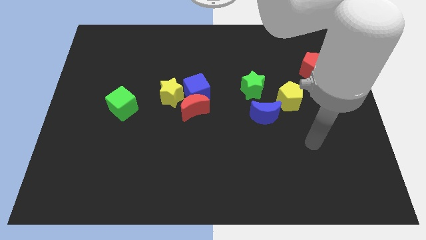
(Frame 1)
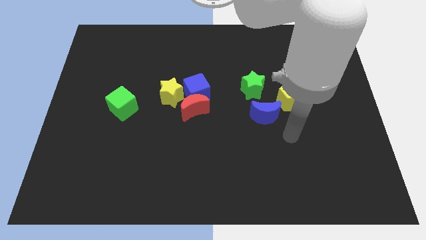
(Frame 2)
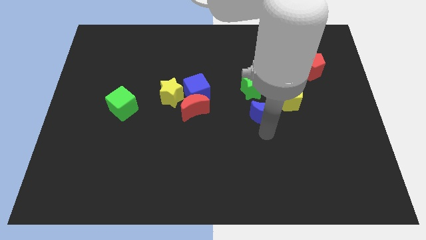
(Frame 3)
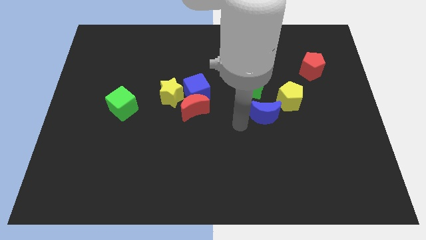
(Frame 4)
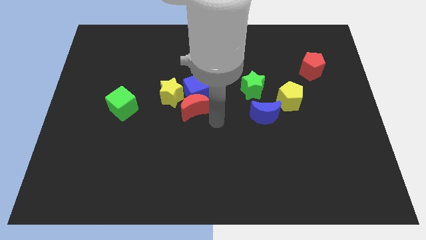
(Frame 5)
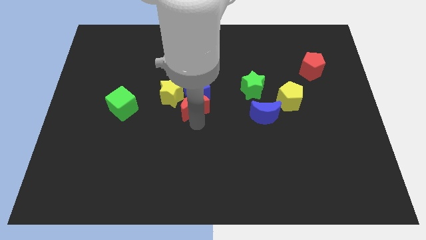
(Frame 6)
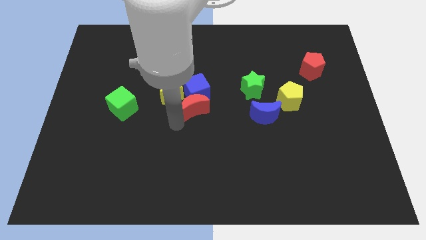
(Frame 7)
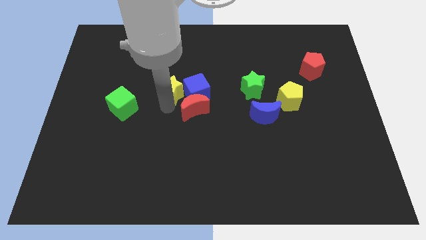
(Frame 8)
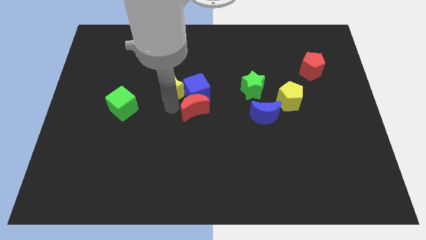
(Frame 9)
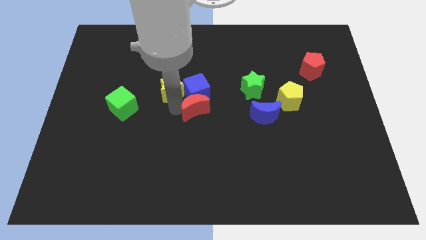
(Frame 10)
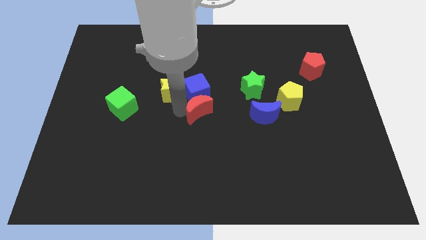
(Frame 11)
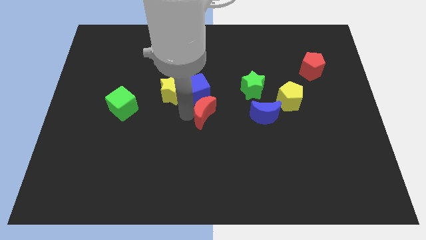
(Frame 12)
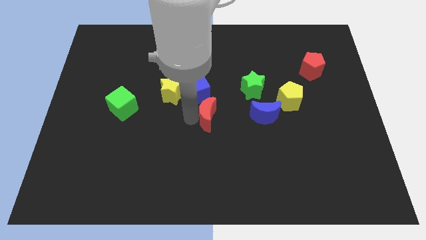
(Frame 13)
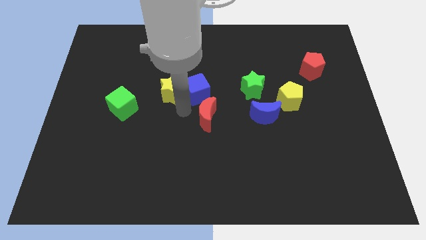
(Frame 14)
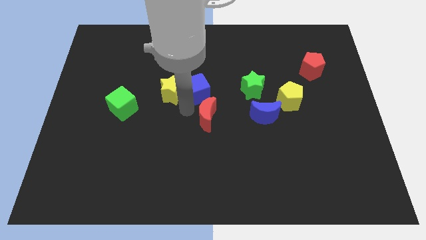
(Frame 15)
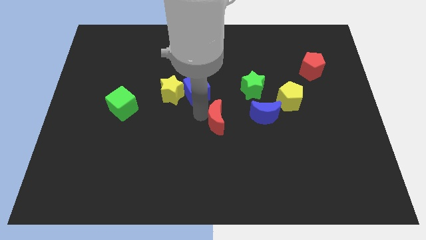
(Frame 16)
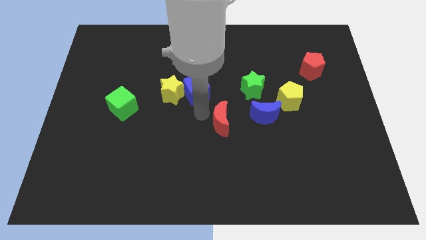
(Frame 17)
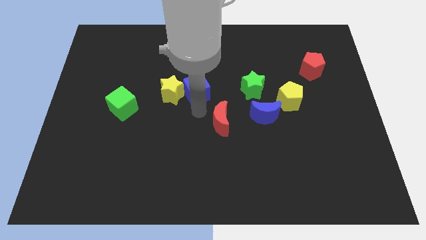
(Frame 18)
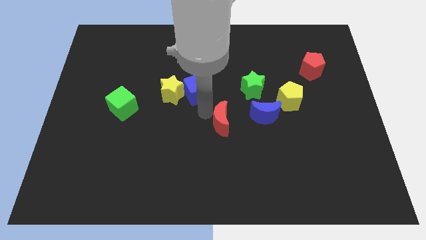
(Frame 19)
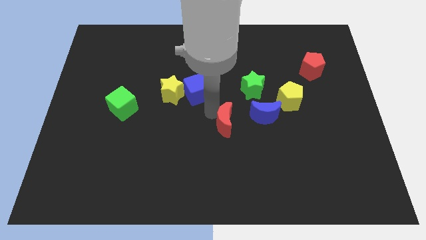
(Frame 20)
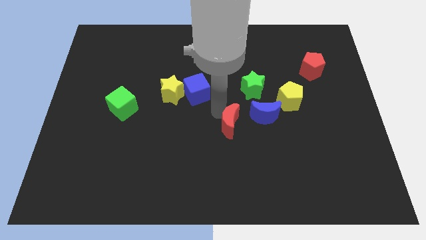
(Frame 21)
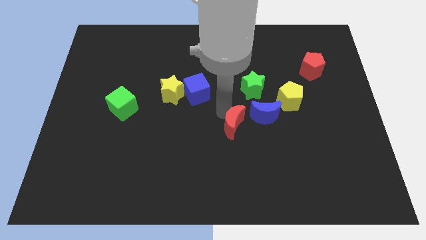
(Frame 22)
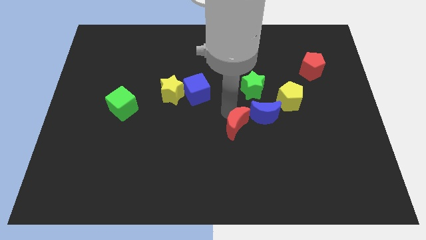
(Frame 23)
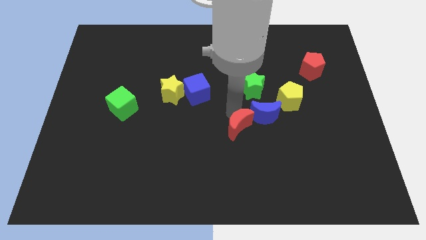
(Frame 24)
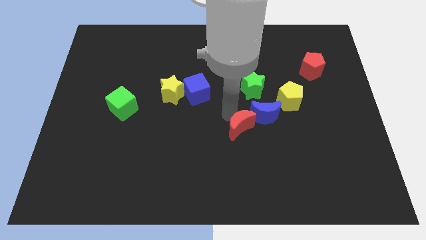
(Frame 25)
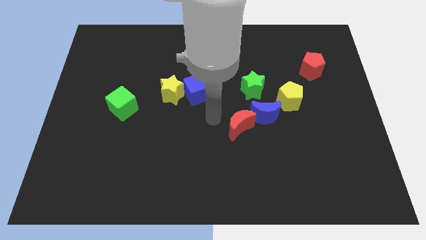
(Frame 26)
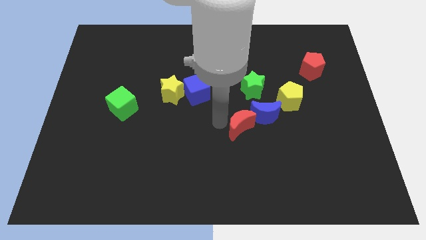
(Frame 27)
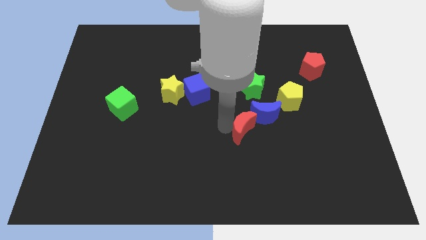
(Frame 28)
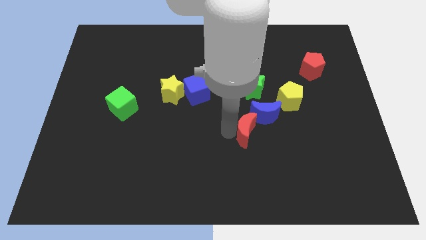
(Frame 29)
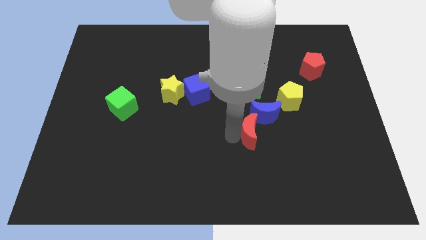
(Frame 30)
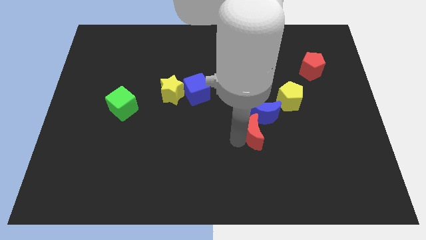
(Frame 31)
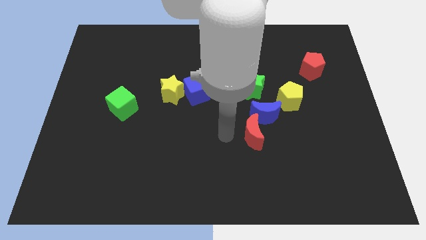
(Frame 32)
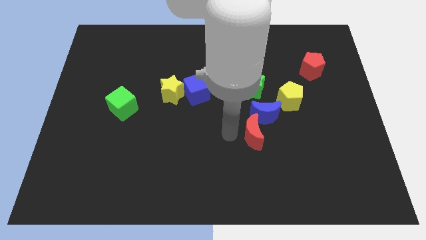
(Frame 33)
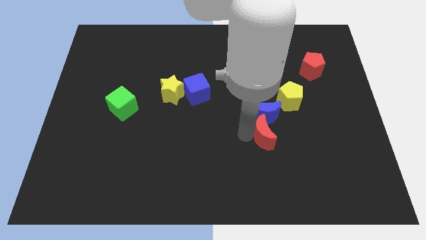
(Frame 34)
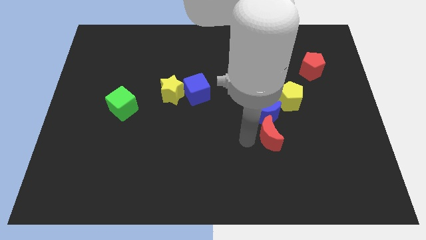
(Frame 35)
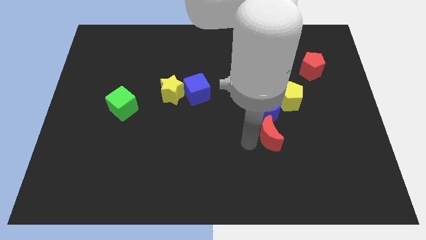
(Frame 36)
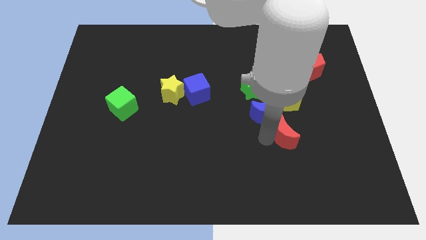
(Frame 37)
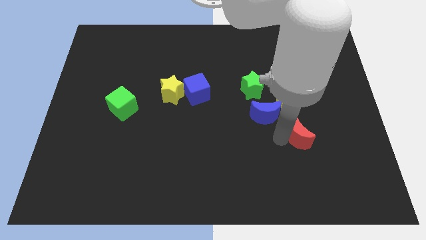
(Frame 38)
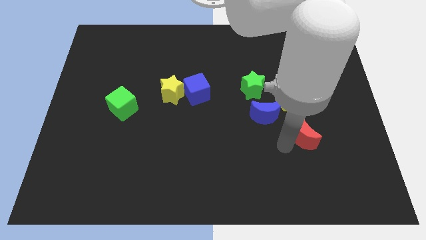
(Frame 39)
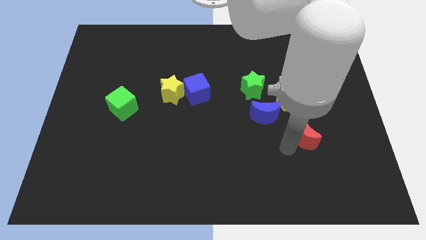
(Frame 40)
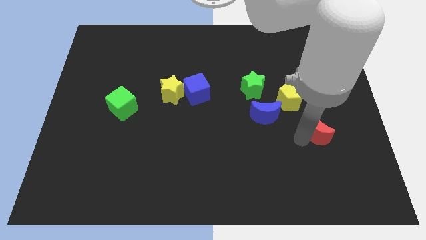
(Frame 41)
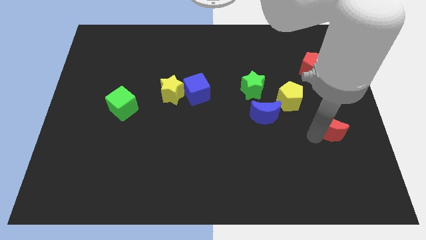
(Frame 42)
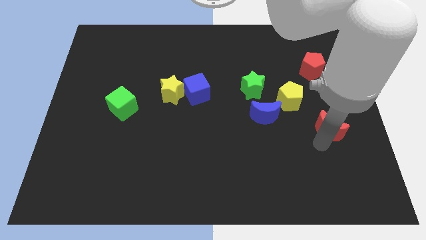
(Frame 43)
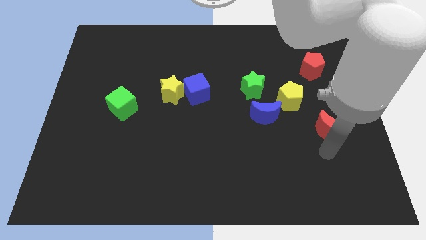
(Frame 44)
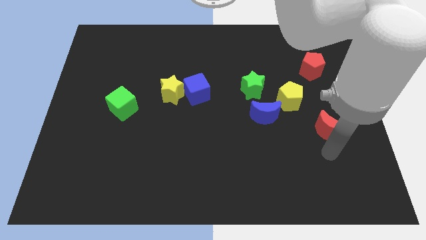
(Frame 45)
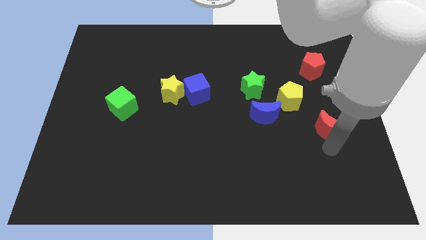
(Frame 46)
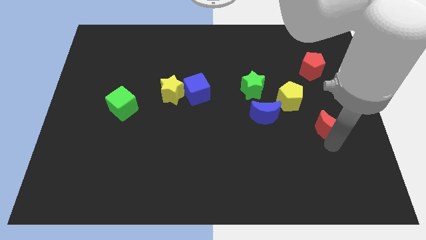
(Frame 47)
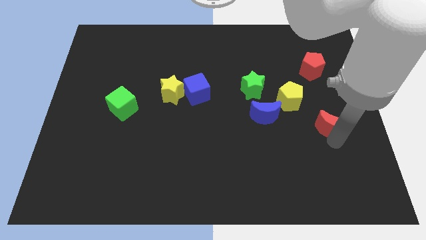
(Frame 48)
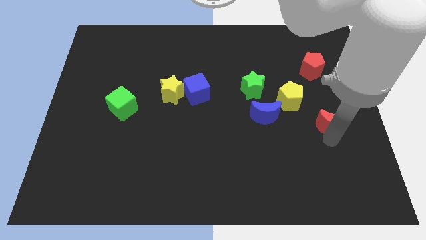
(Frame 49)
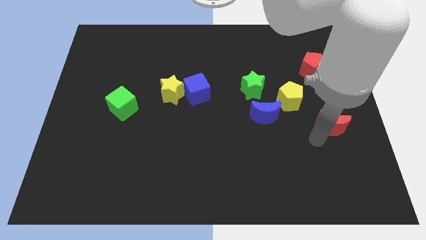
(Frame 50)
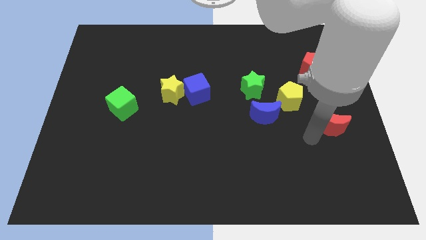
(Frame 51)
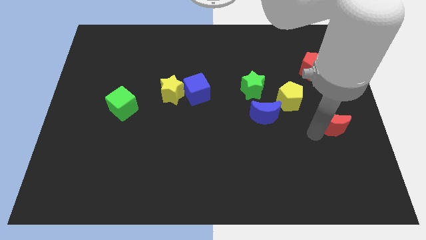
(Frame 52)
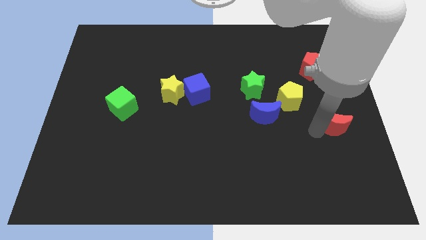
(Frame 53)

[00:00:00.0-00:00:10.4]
slide the red moon to the right side of the board

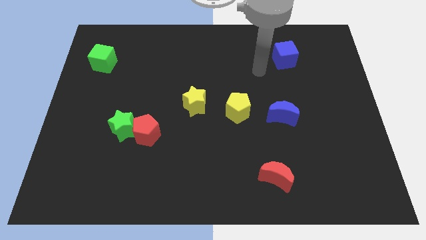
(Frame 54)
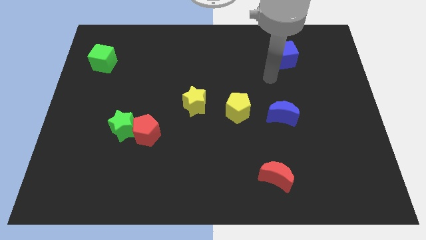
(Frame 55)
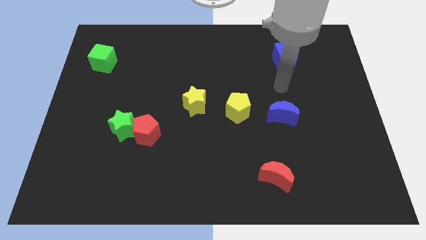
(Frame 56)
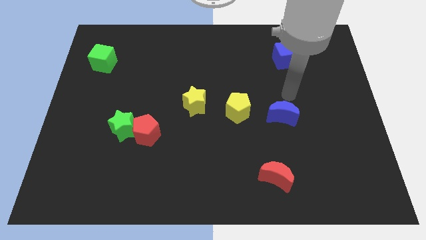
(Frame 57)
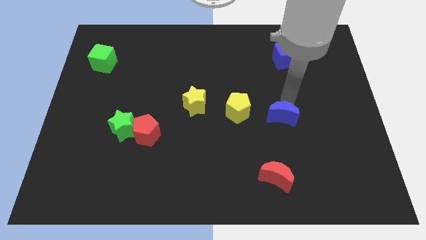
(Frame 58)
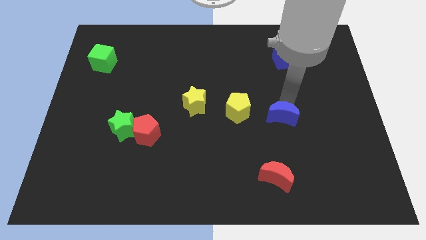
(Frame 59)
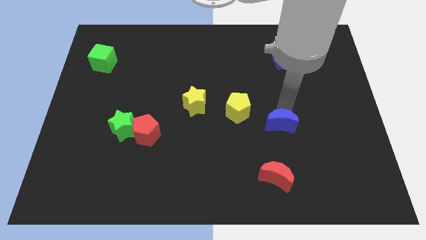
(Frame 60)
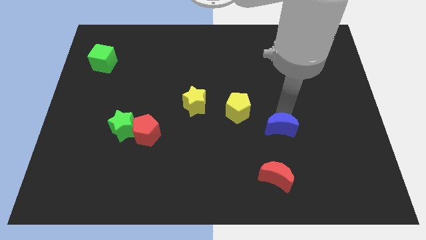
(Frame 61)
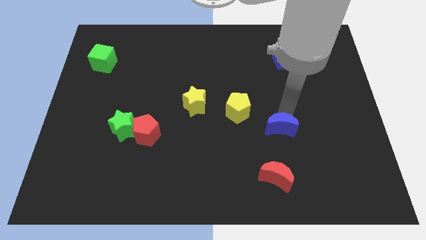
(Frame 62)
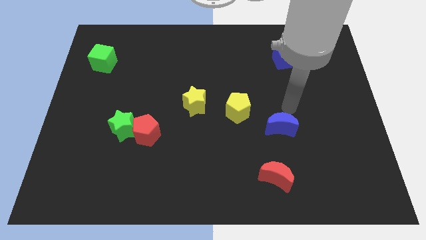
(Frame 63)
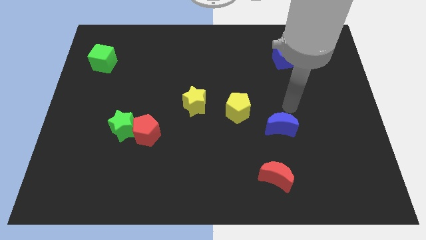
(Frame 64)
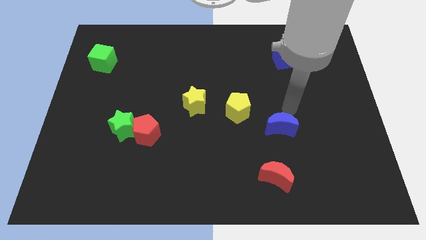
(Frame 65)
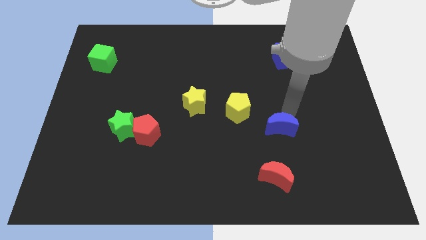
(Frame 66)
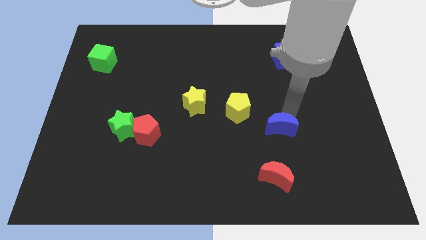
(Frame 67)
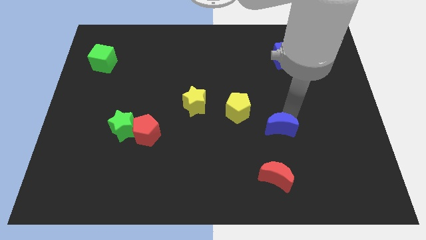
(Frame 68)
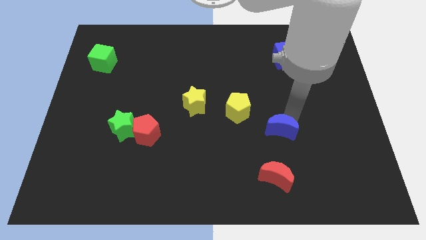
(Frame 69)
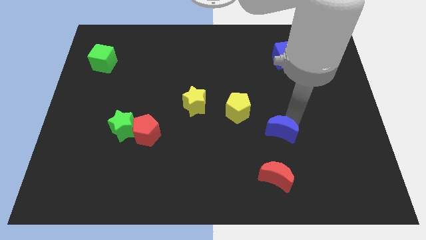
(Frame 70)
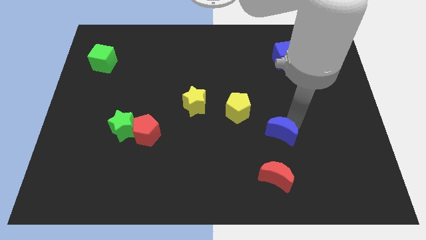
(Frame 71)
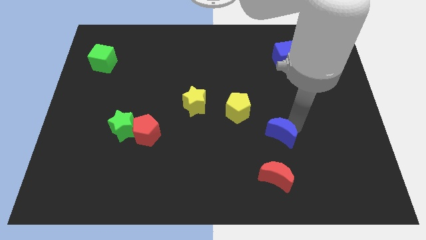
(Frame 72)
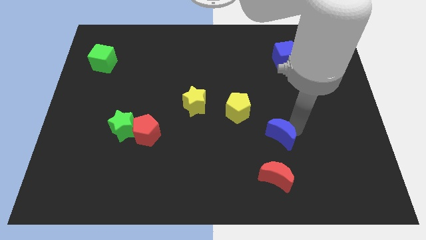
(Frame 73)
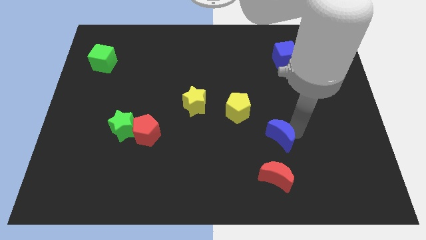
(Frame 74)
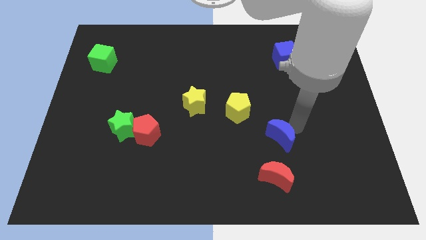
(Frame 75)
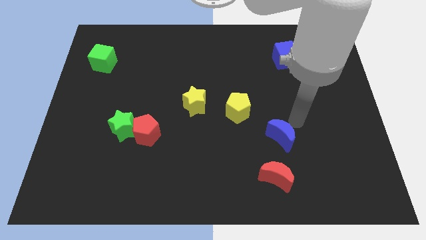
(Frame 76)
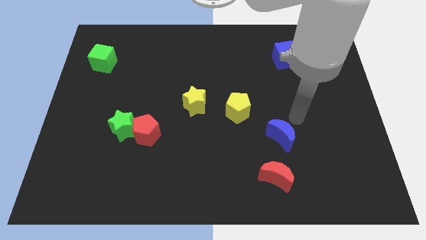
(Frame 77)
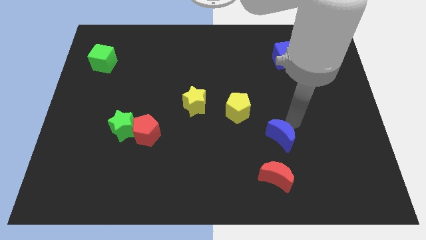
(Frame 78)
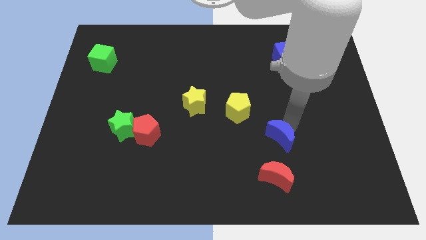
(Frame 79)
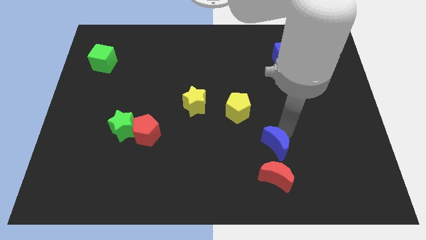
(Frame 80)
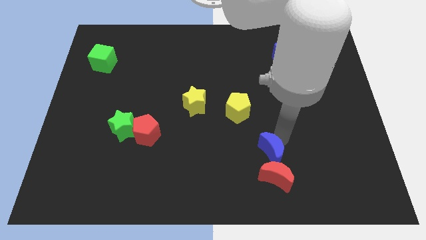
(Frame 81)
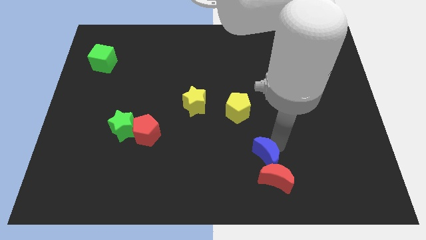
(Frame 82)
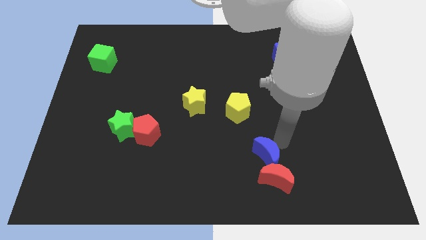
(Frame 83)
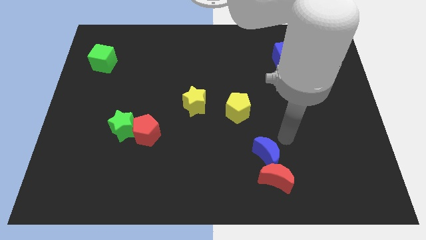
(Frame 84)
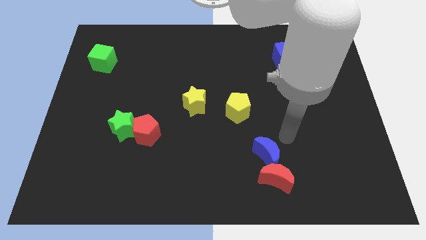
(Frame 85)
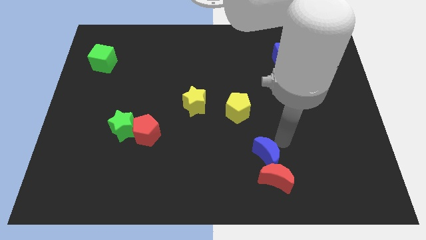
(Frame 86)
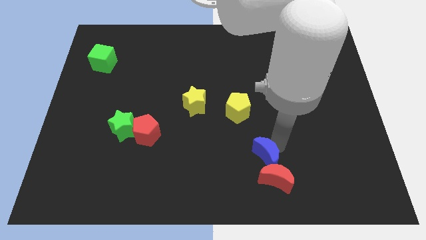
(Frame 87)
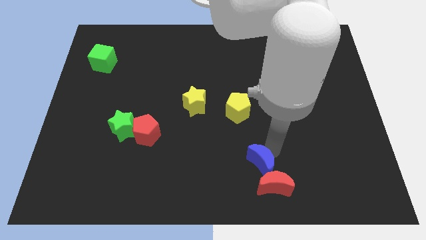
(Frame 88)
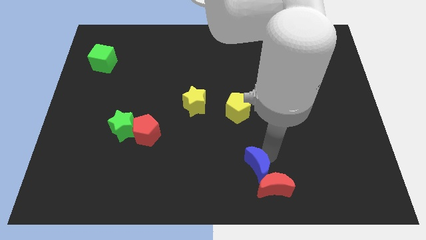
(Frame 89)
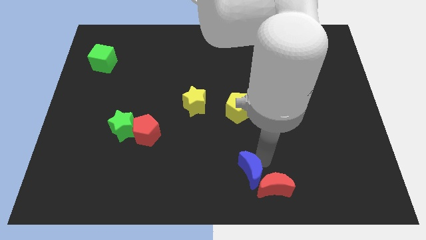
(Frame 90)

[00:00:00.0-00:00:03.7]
move the blue moon to the bottom side
